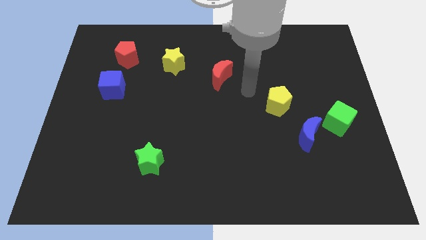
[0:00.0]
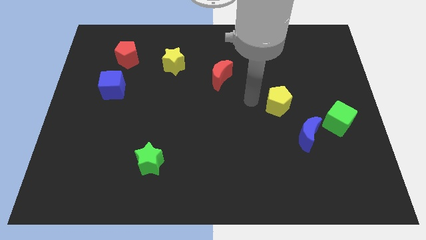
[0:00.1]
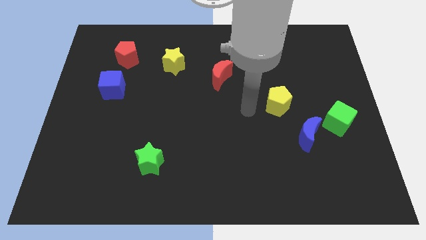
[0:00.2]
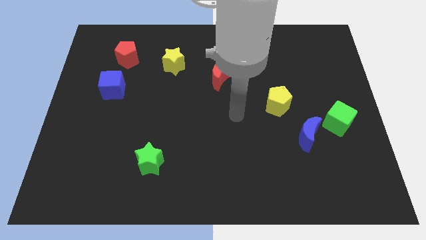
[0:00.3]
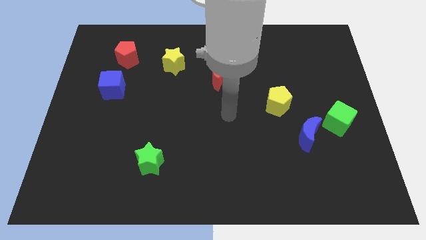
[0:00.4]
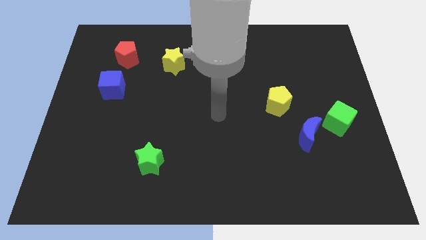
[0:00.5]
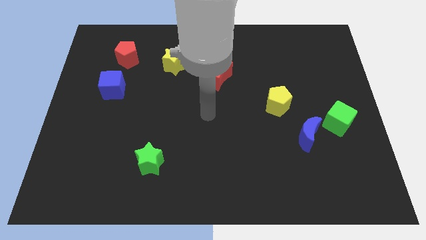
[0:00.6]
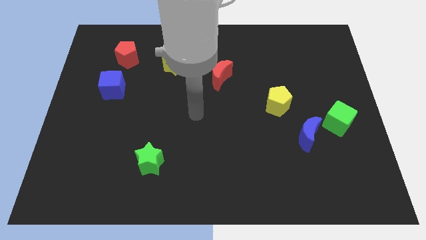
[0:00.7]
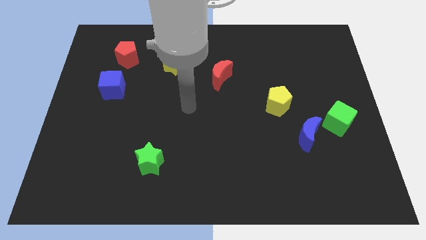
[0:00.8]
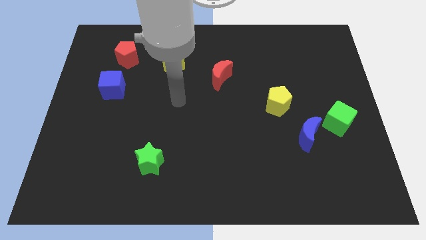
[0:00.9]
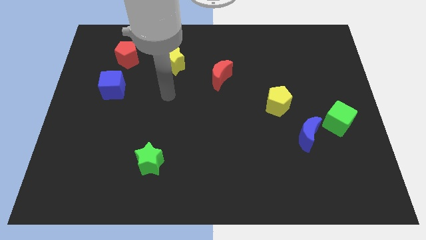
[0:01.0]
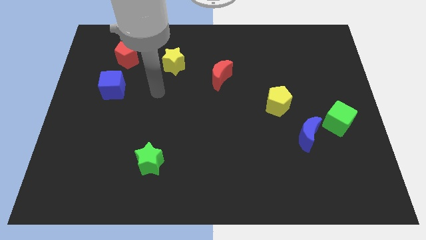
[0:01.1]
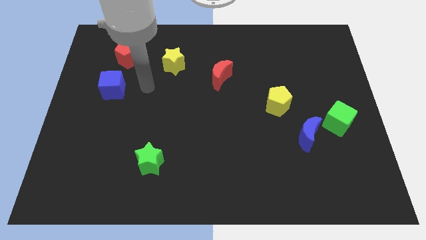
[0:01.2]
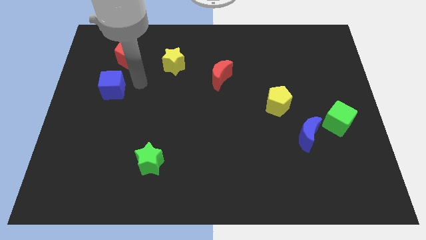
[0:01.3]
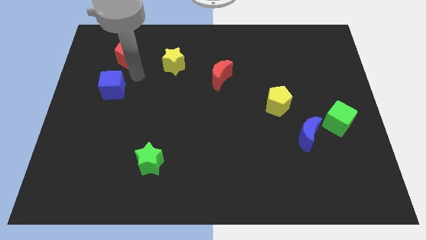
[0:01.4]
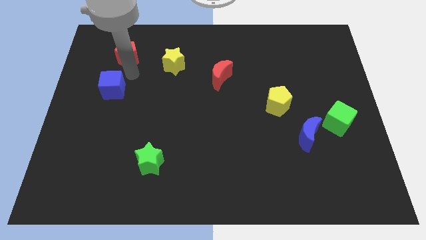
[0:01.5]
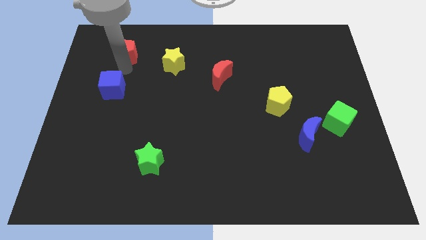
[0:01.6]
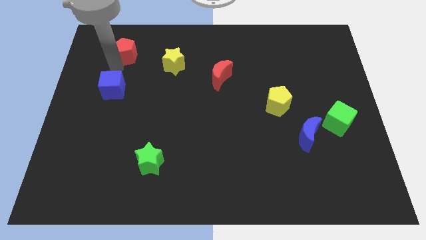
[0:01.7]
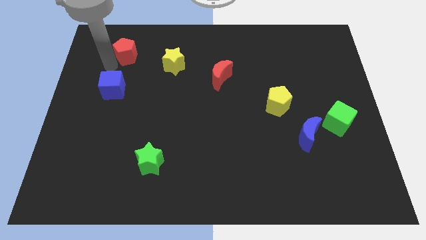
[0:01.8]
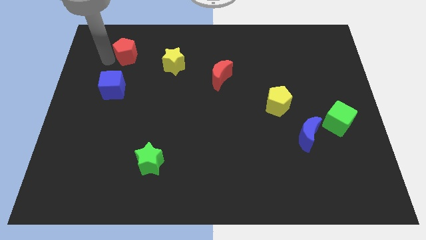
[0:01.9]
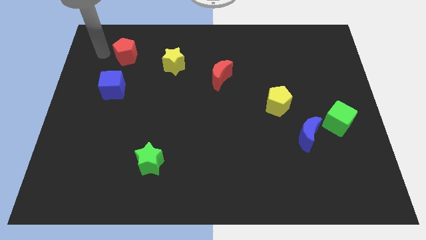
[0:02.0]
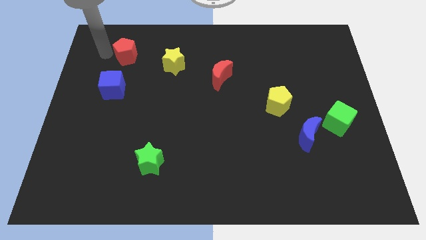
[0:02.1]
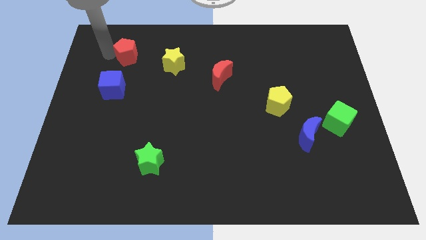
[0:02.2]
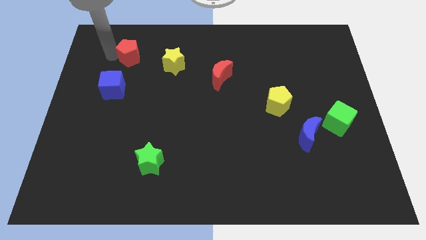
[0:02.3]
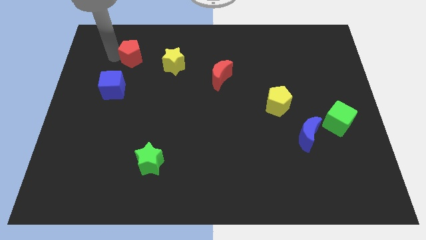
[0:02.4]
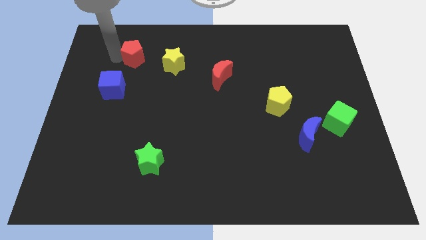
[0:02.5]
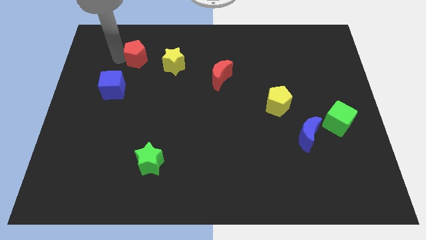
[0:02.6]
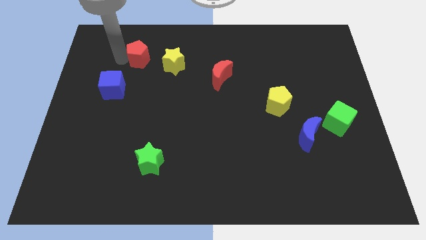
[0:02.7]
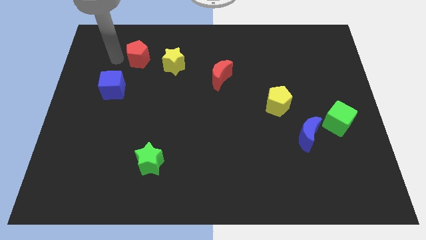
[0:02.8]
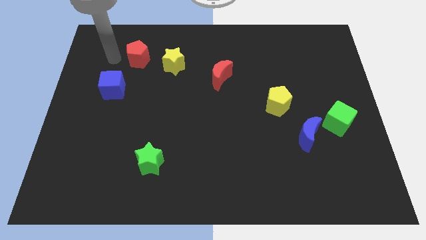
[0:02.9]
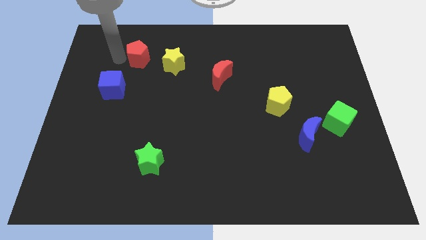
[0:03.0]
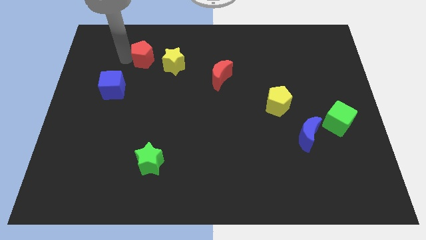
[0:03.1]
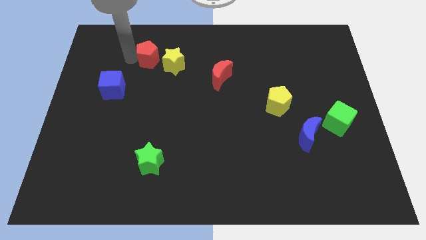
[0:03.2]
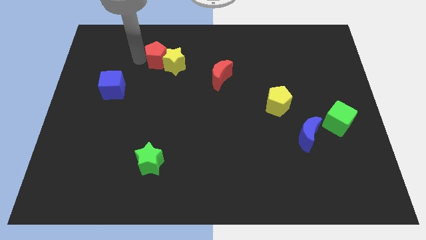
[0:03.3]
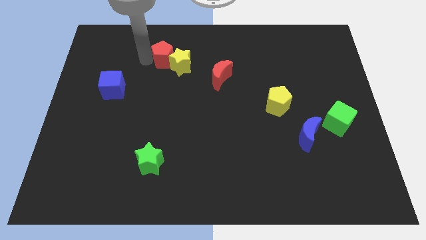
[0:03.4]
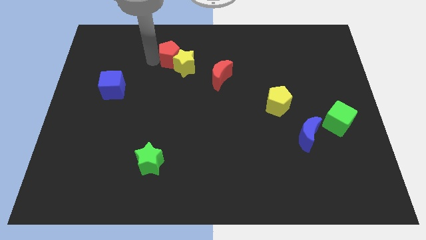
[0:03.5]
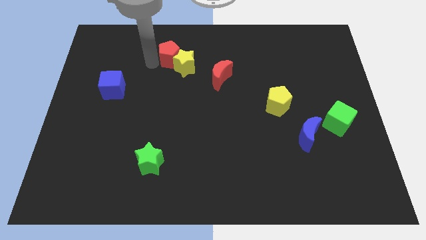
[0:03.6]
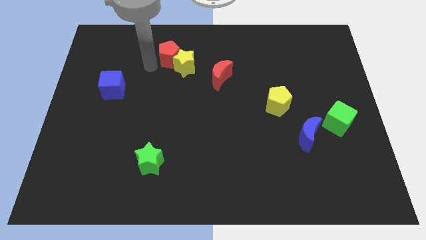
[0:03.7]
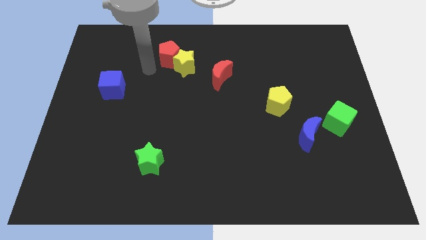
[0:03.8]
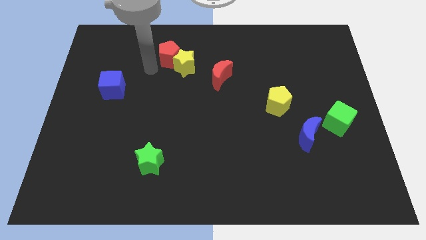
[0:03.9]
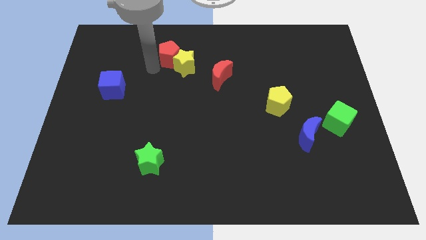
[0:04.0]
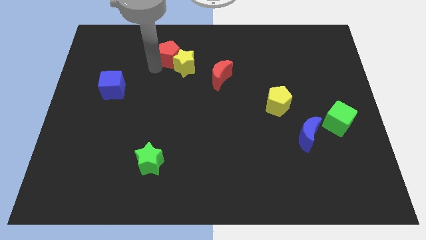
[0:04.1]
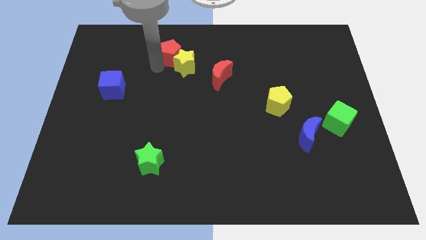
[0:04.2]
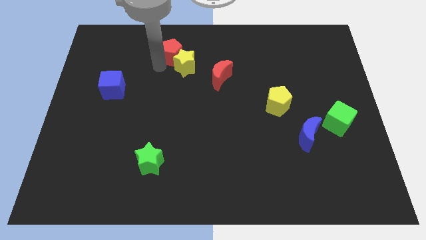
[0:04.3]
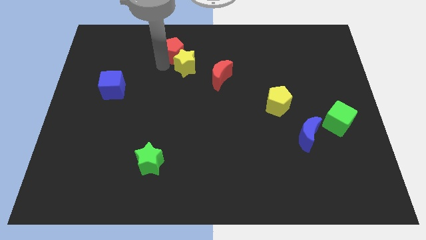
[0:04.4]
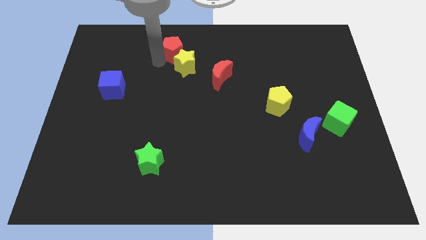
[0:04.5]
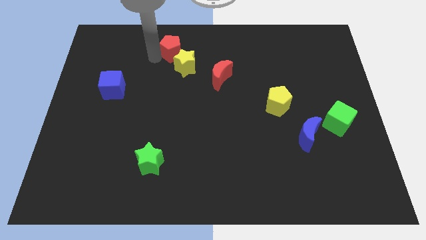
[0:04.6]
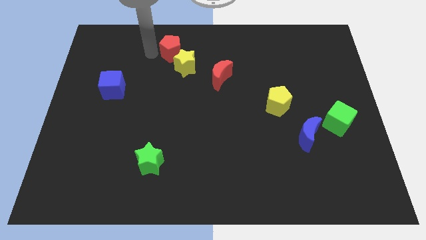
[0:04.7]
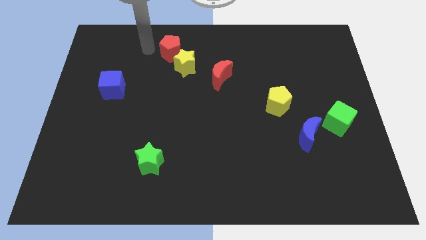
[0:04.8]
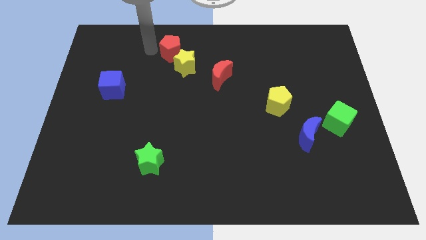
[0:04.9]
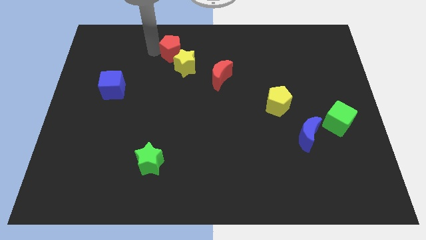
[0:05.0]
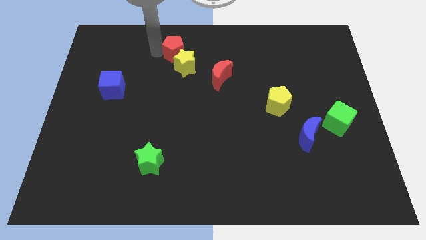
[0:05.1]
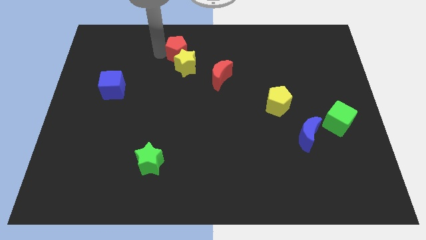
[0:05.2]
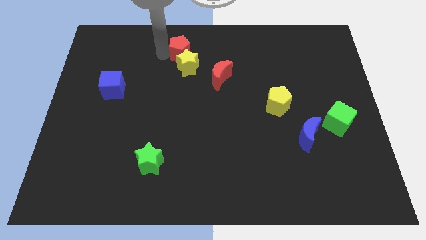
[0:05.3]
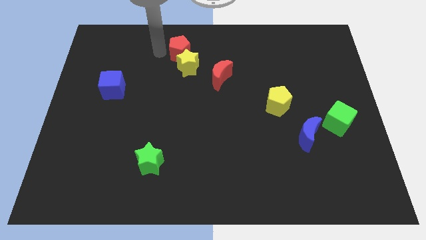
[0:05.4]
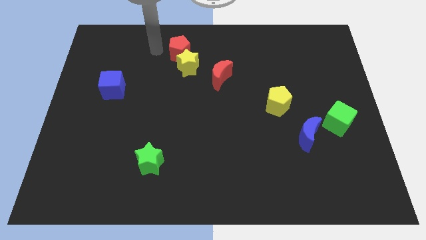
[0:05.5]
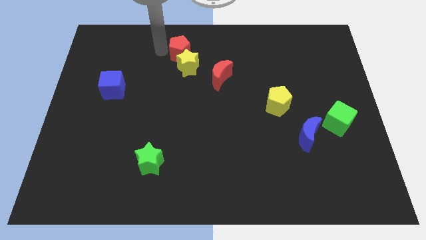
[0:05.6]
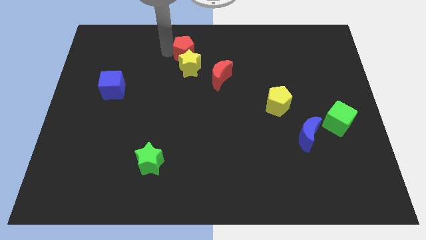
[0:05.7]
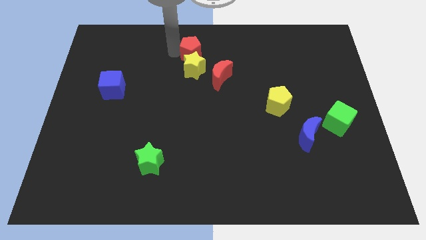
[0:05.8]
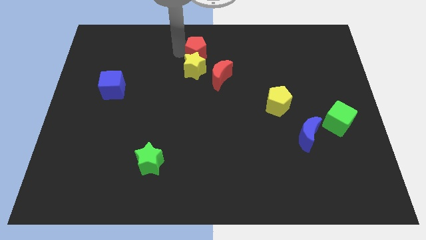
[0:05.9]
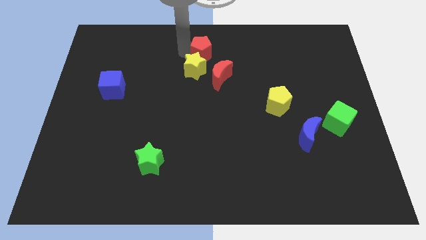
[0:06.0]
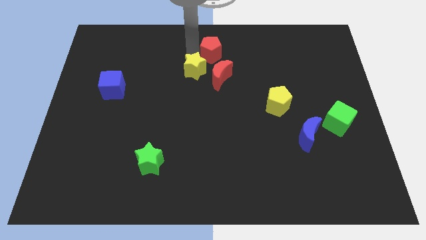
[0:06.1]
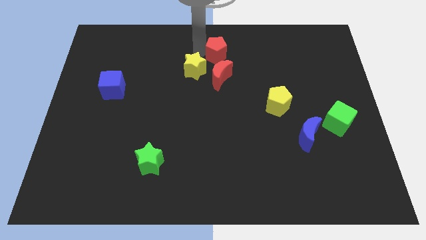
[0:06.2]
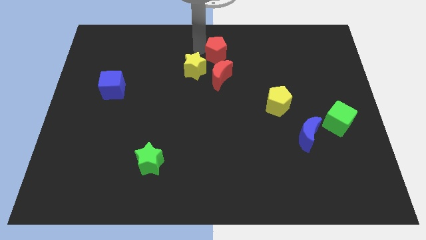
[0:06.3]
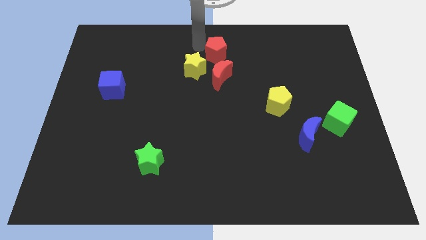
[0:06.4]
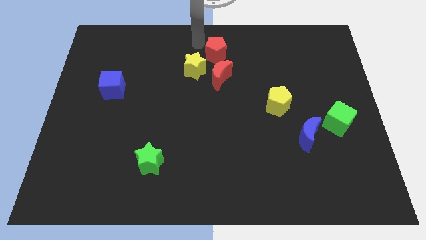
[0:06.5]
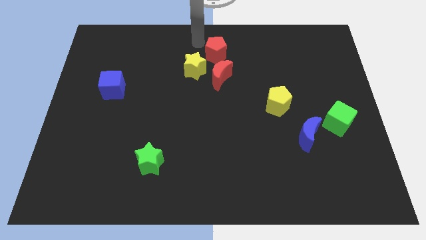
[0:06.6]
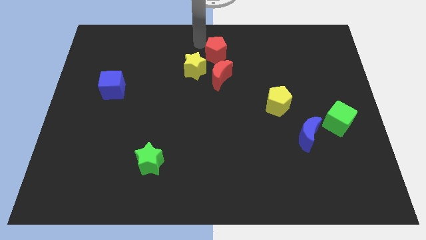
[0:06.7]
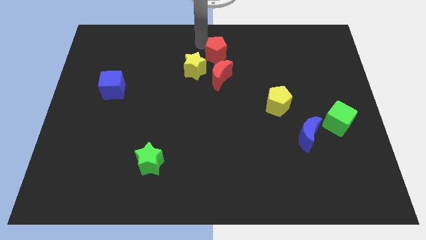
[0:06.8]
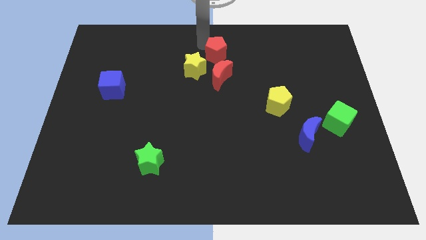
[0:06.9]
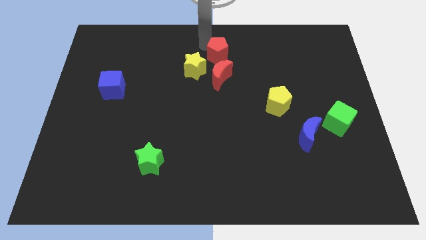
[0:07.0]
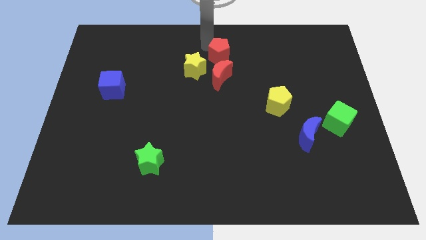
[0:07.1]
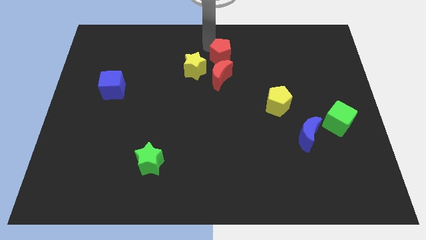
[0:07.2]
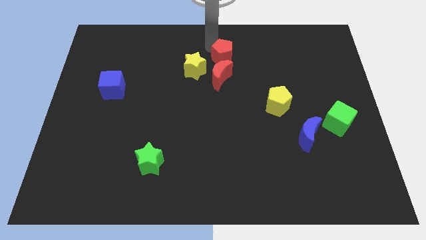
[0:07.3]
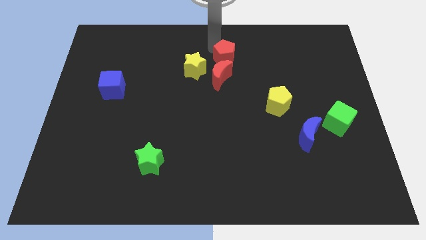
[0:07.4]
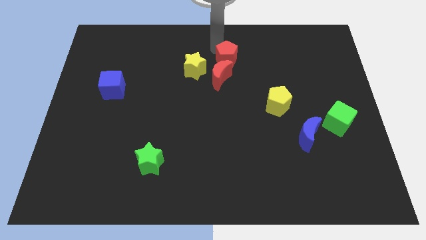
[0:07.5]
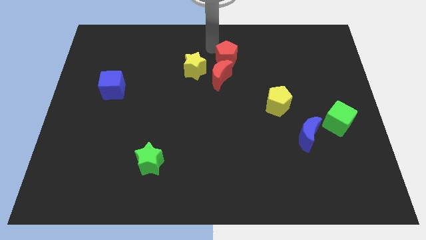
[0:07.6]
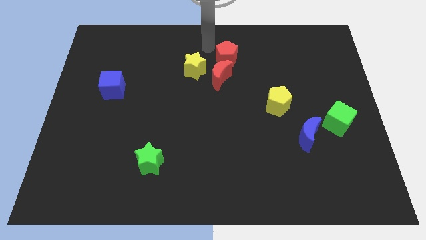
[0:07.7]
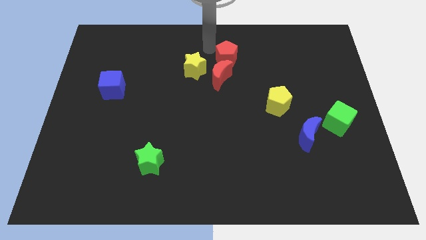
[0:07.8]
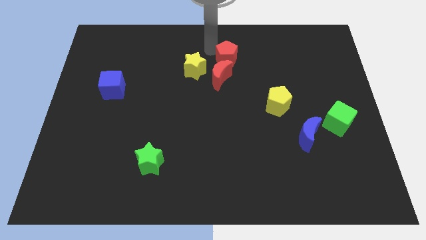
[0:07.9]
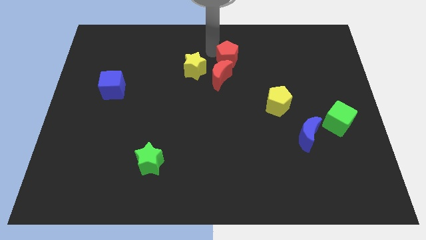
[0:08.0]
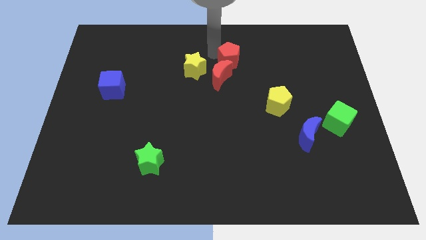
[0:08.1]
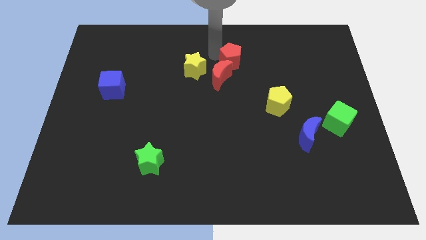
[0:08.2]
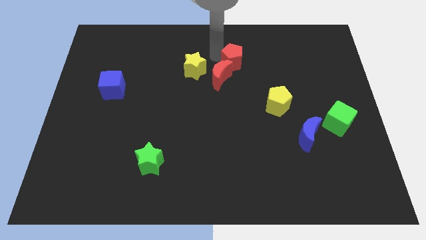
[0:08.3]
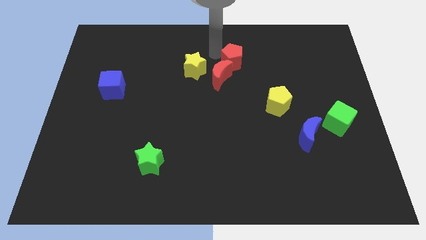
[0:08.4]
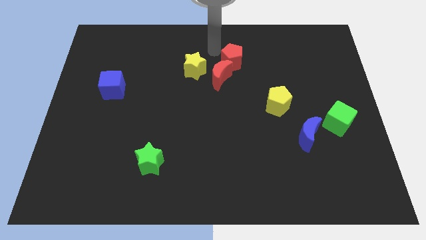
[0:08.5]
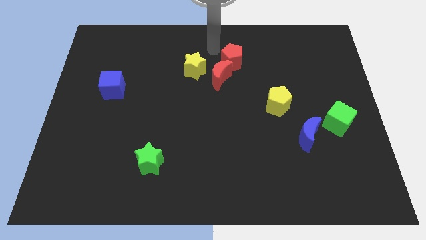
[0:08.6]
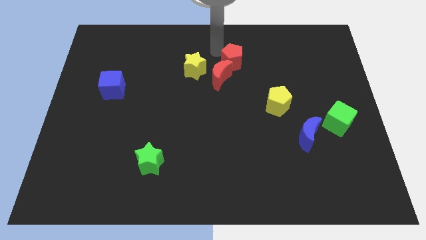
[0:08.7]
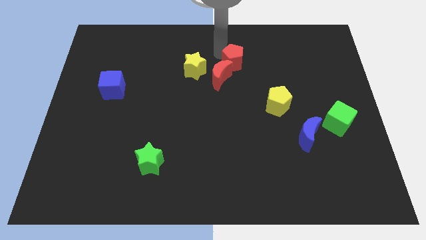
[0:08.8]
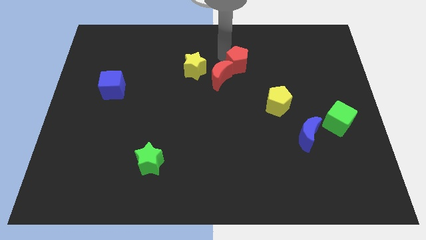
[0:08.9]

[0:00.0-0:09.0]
move the red pentagon to the right side of the red moon
